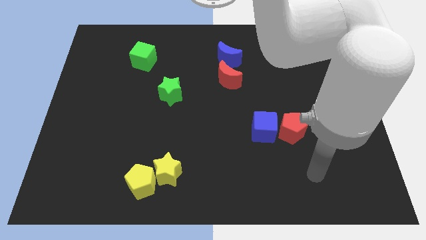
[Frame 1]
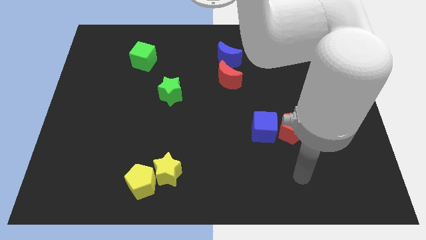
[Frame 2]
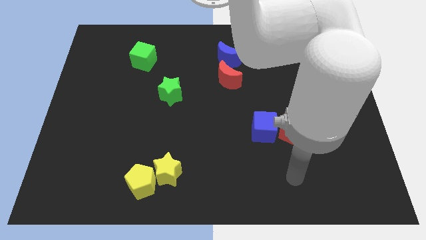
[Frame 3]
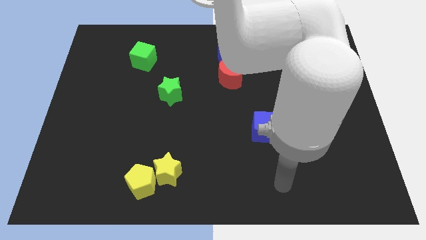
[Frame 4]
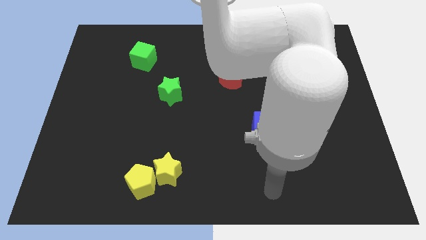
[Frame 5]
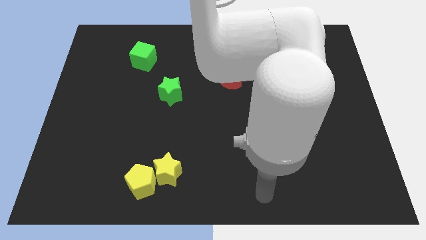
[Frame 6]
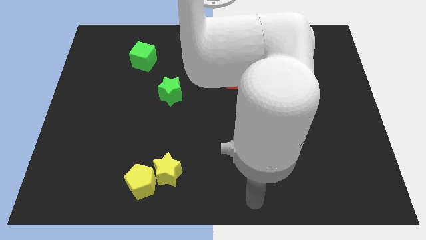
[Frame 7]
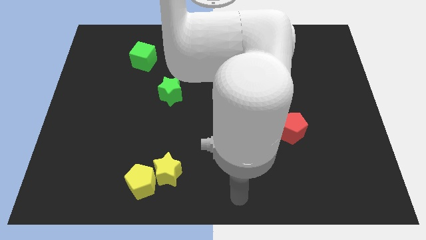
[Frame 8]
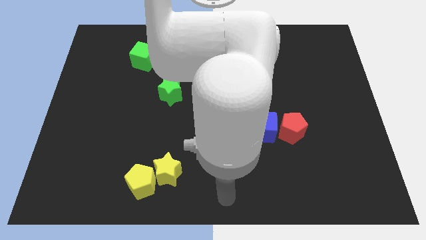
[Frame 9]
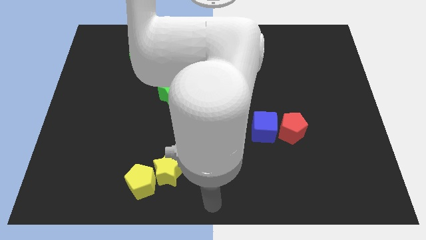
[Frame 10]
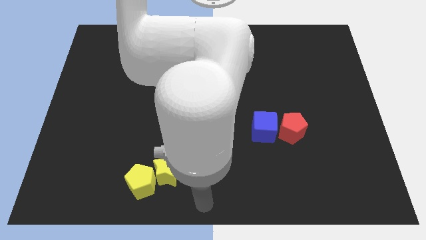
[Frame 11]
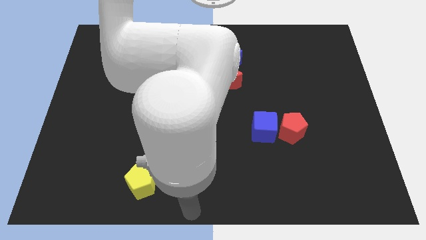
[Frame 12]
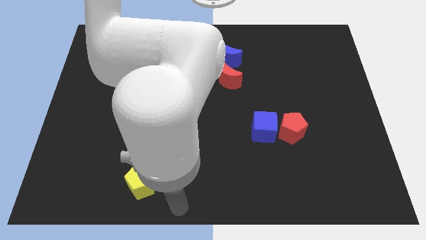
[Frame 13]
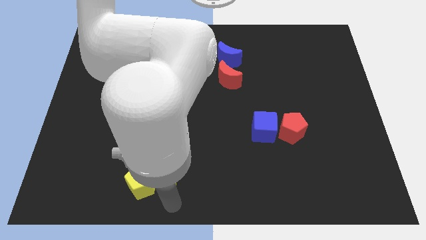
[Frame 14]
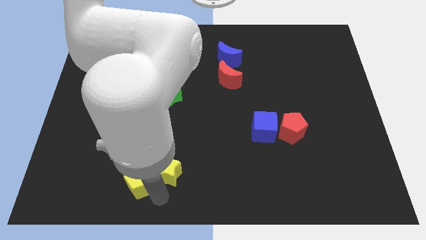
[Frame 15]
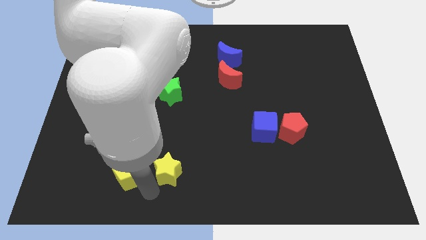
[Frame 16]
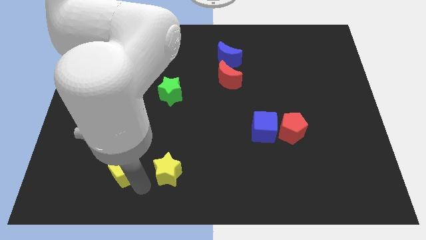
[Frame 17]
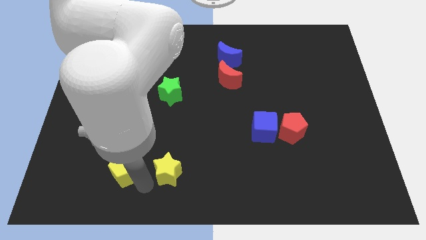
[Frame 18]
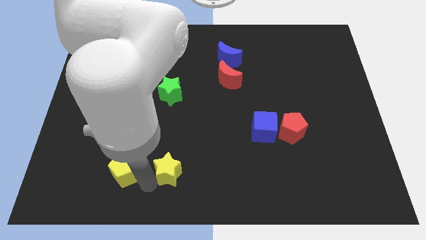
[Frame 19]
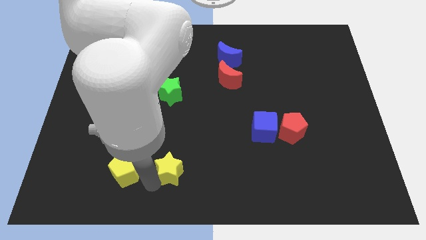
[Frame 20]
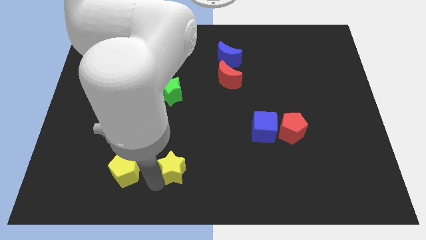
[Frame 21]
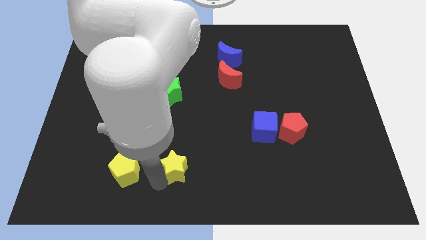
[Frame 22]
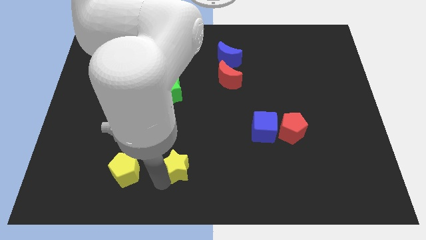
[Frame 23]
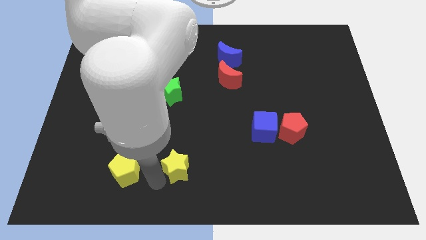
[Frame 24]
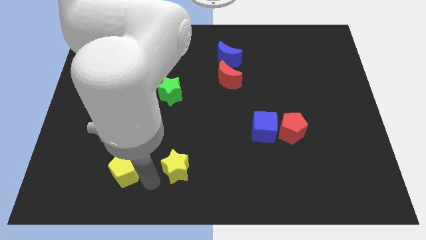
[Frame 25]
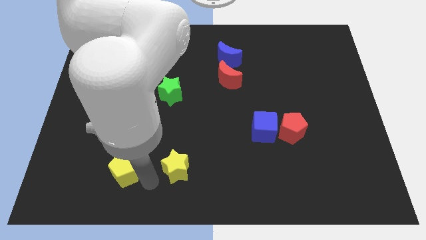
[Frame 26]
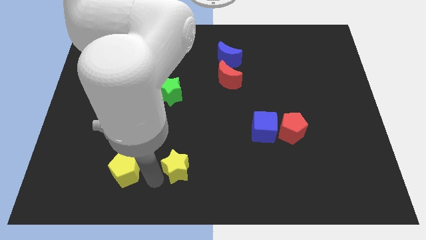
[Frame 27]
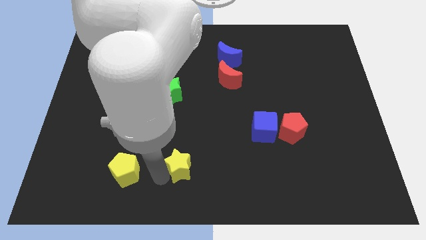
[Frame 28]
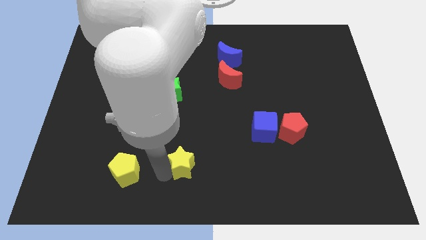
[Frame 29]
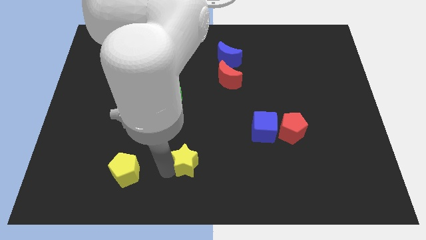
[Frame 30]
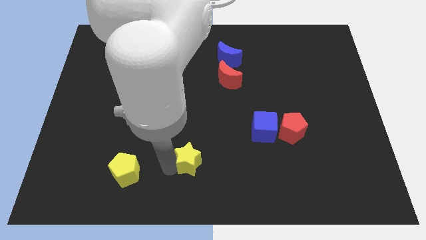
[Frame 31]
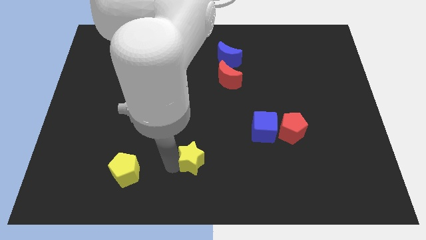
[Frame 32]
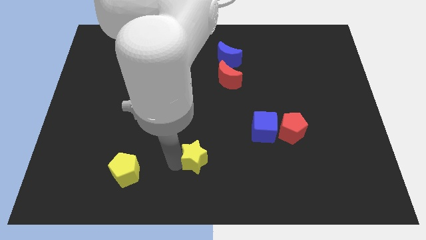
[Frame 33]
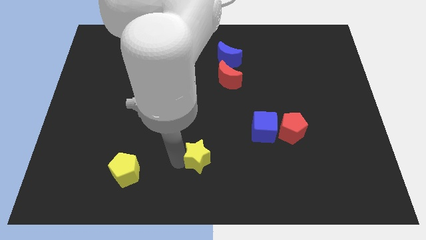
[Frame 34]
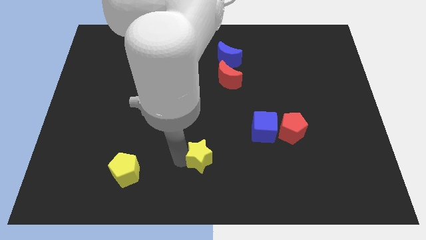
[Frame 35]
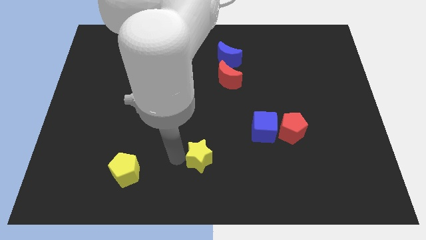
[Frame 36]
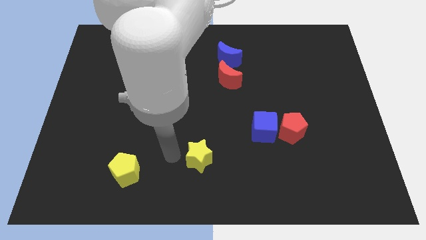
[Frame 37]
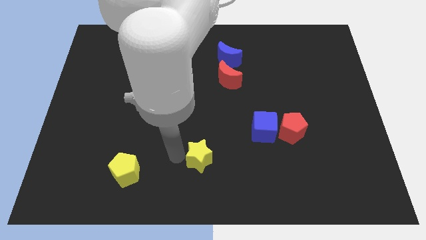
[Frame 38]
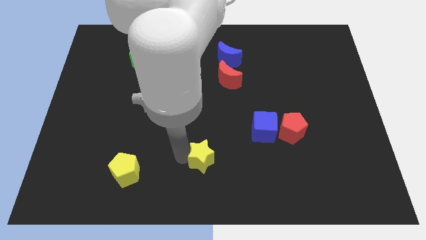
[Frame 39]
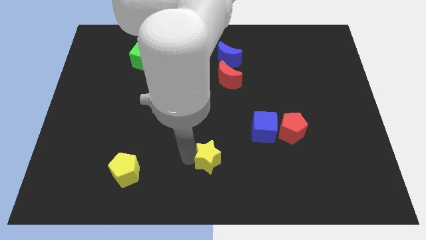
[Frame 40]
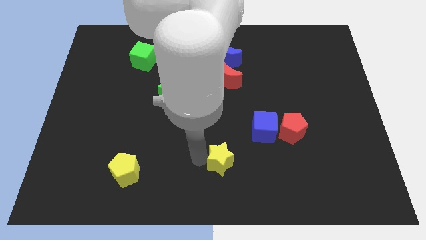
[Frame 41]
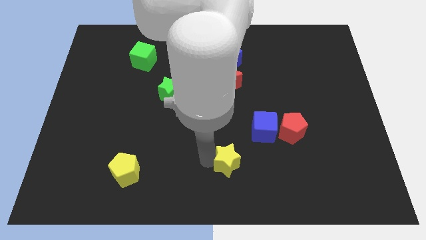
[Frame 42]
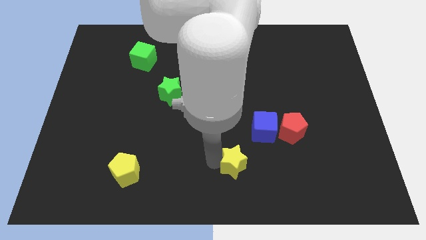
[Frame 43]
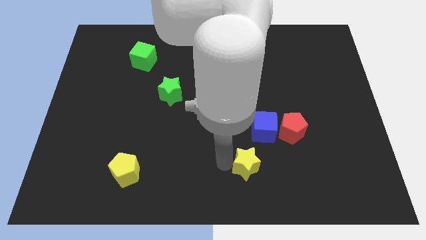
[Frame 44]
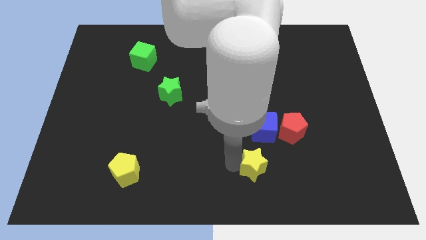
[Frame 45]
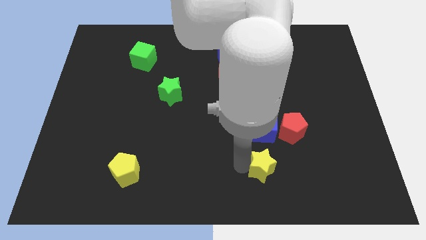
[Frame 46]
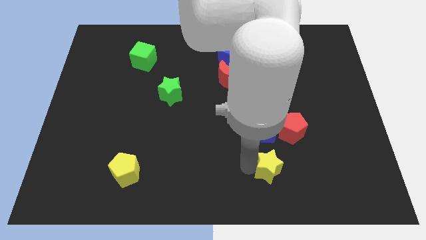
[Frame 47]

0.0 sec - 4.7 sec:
push the yellow star to the right

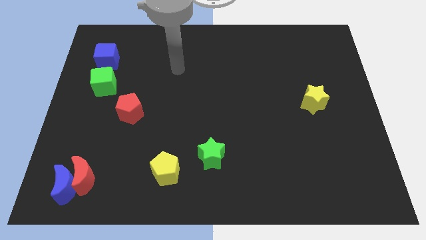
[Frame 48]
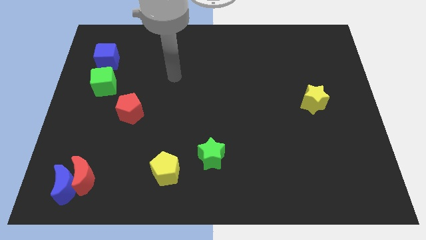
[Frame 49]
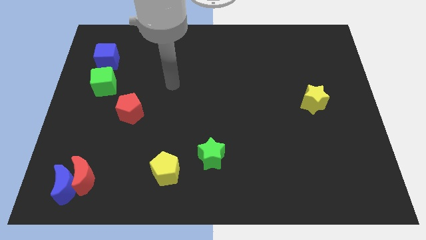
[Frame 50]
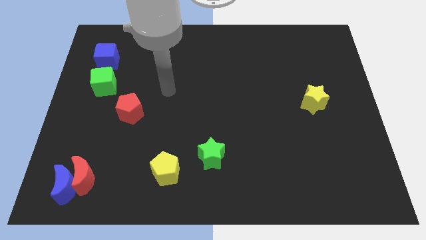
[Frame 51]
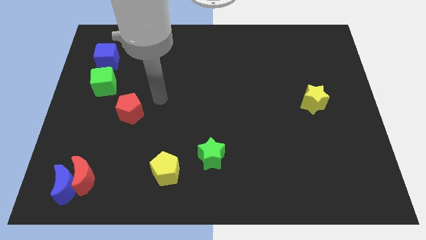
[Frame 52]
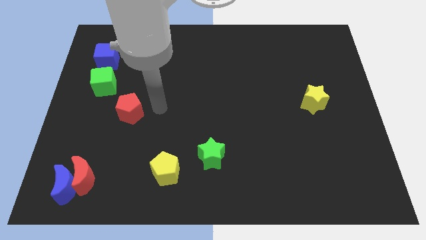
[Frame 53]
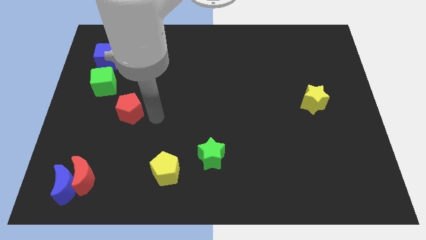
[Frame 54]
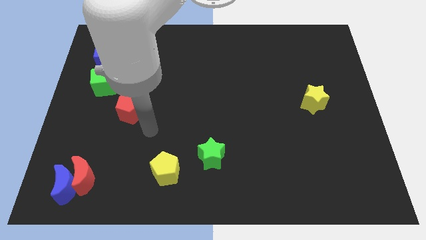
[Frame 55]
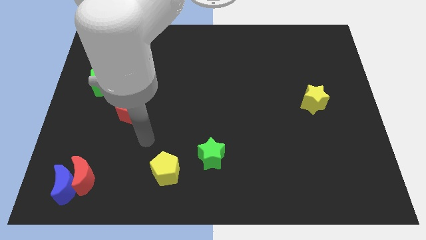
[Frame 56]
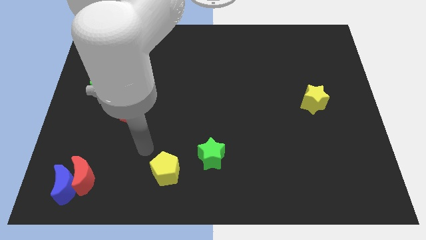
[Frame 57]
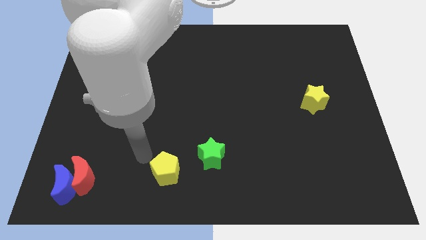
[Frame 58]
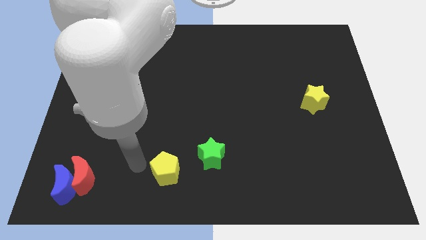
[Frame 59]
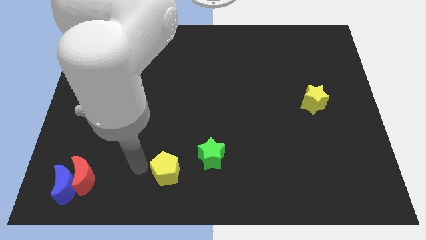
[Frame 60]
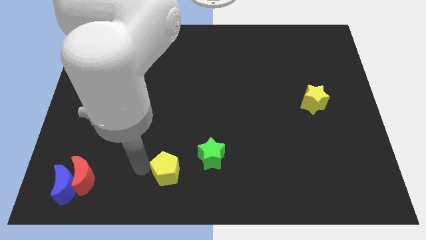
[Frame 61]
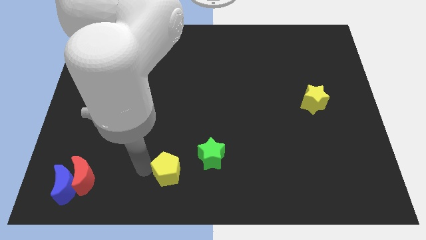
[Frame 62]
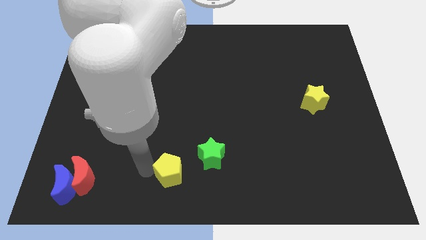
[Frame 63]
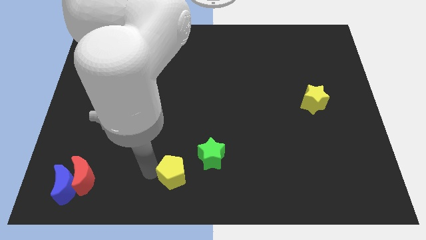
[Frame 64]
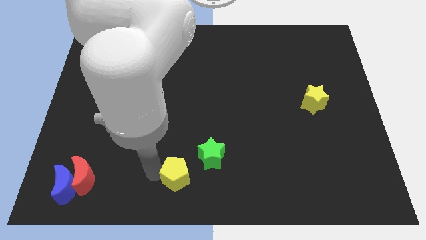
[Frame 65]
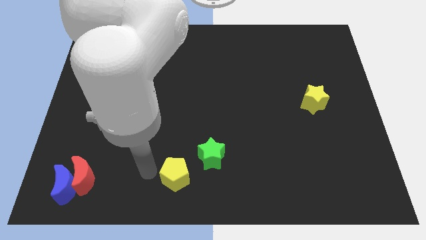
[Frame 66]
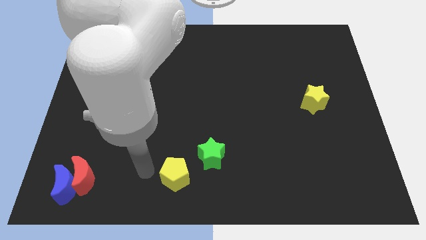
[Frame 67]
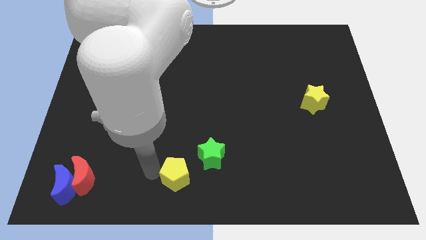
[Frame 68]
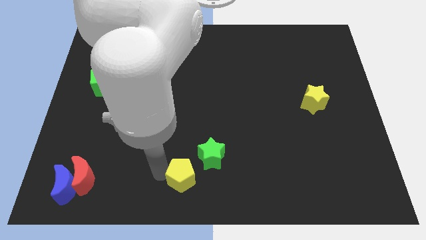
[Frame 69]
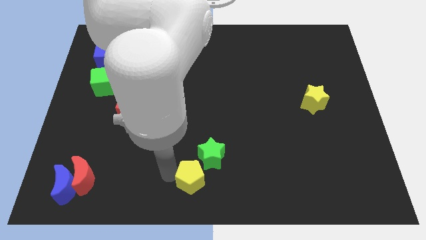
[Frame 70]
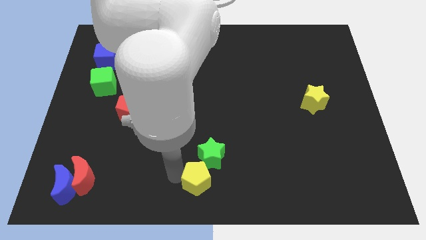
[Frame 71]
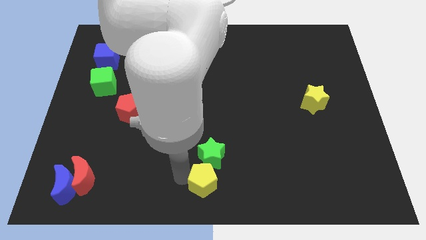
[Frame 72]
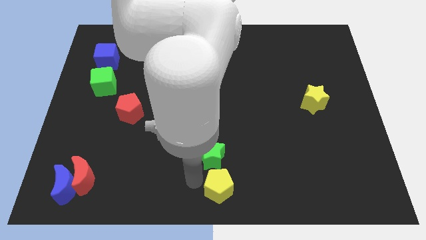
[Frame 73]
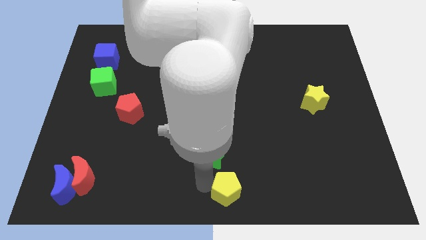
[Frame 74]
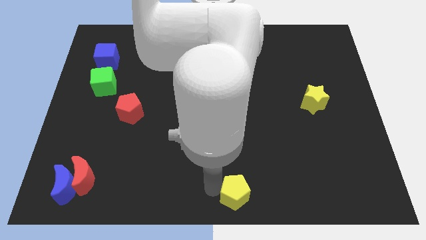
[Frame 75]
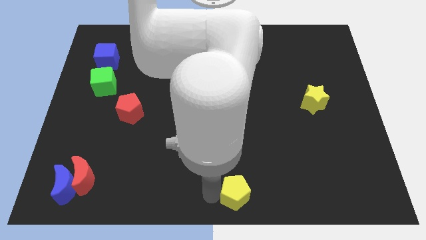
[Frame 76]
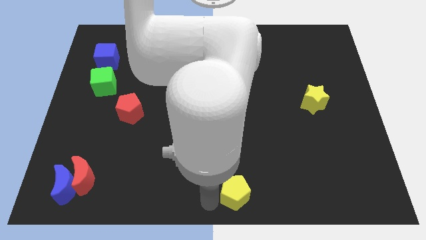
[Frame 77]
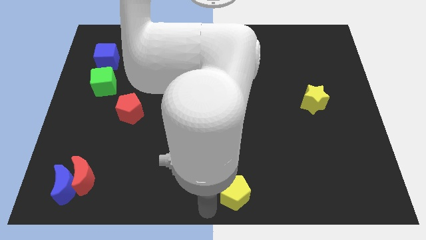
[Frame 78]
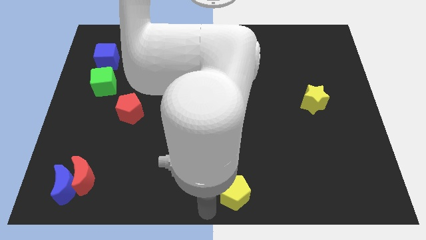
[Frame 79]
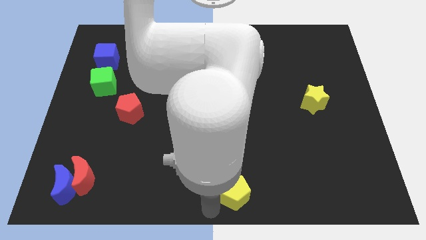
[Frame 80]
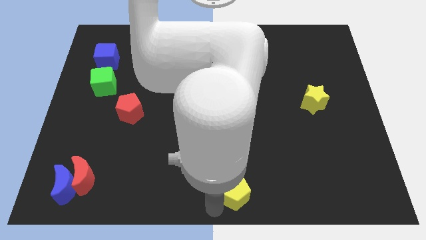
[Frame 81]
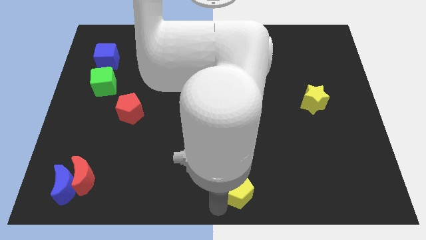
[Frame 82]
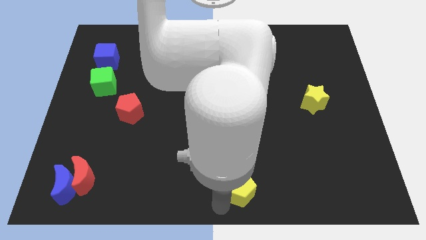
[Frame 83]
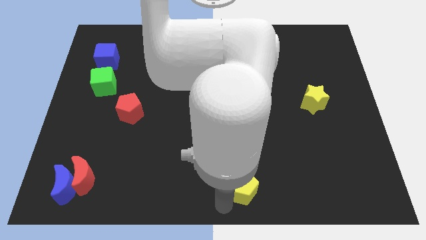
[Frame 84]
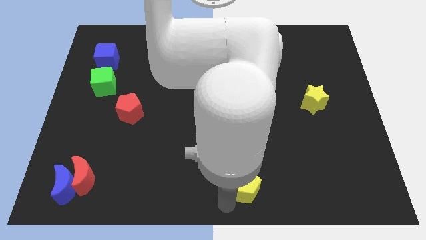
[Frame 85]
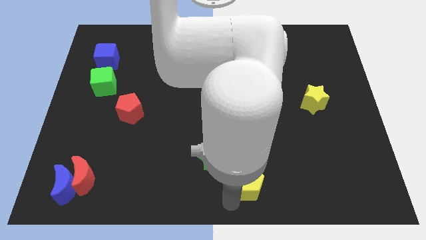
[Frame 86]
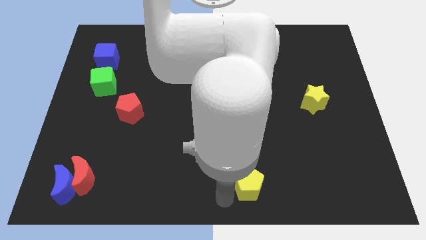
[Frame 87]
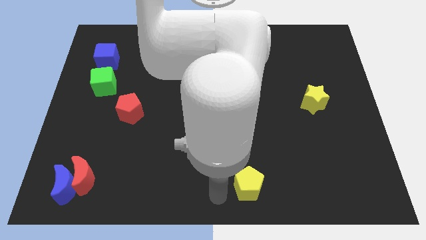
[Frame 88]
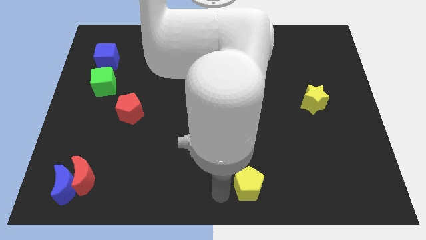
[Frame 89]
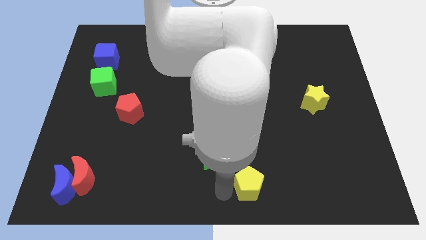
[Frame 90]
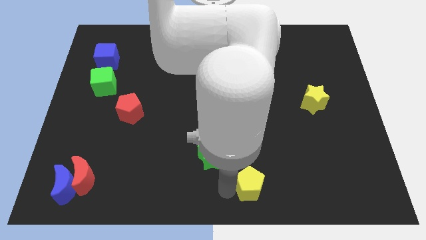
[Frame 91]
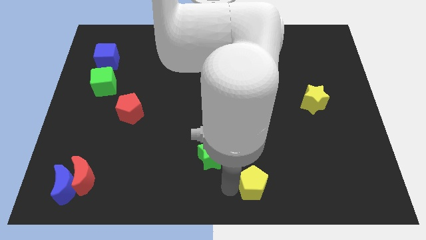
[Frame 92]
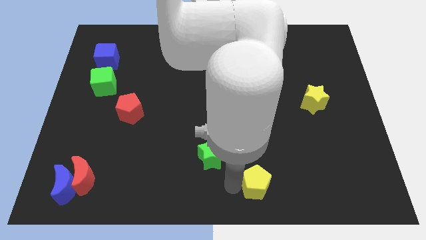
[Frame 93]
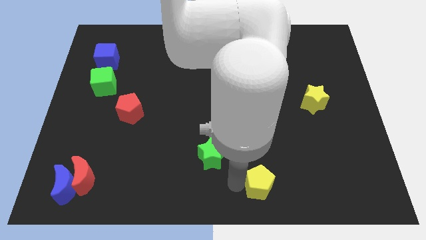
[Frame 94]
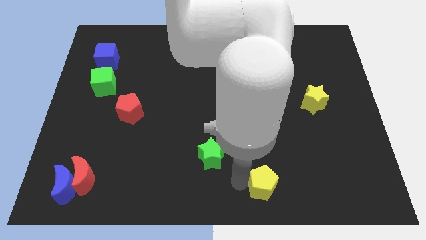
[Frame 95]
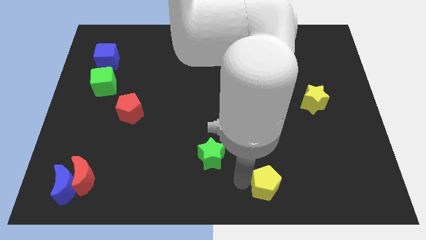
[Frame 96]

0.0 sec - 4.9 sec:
move the yellow pentagon to the right
